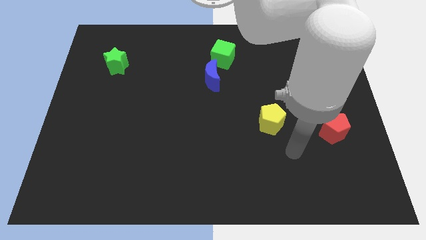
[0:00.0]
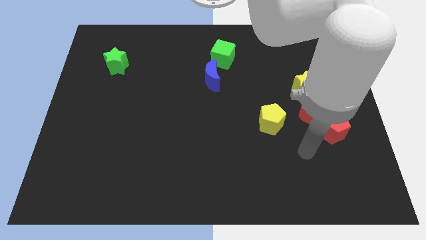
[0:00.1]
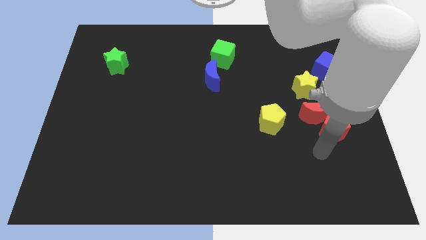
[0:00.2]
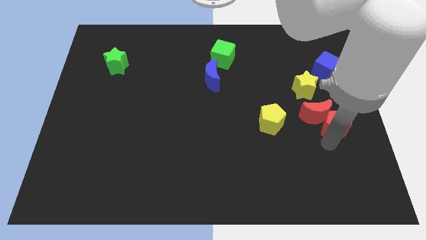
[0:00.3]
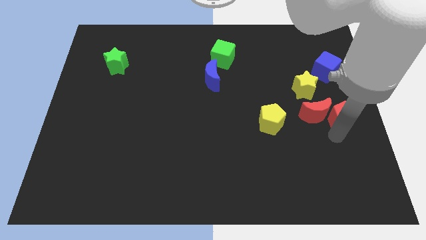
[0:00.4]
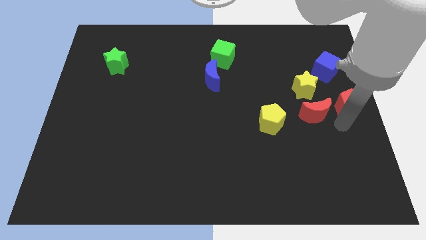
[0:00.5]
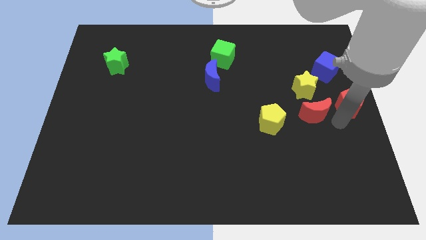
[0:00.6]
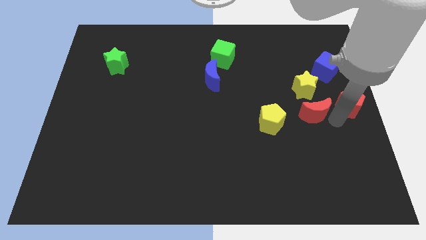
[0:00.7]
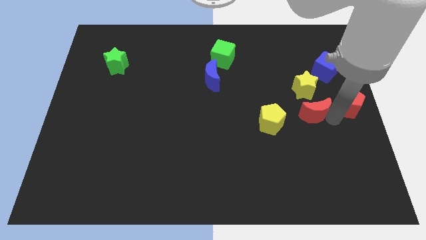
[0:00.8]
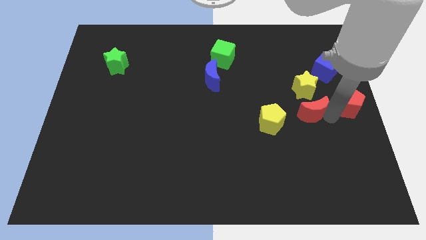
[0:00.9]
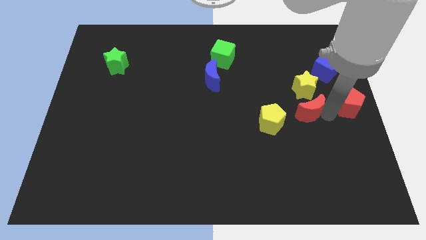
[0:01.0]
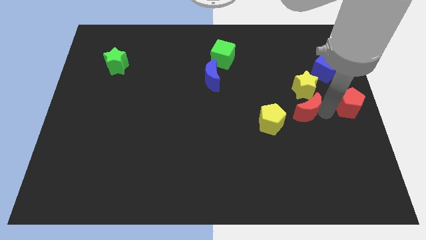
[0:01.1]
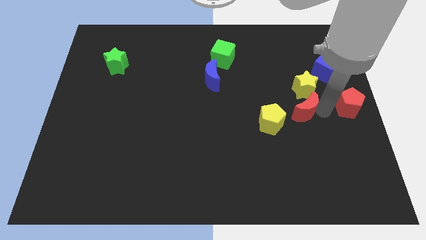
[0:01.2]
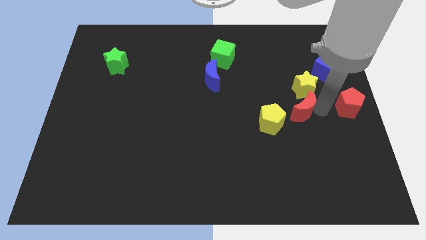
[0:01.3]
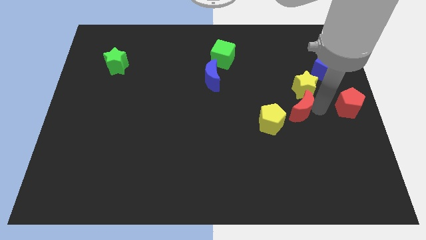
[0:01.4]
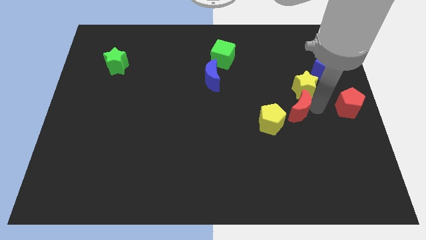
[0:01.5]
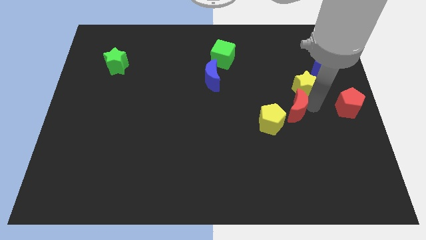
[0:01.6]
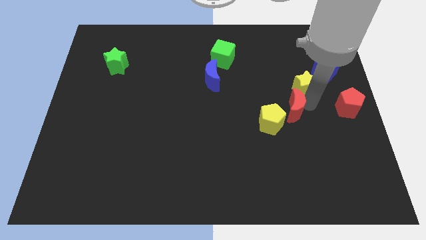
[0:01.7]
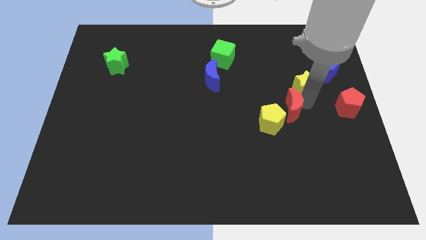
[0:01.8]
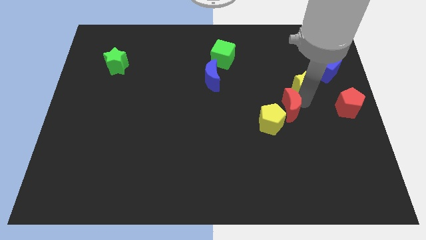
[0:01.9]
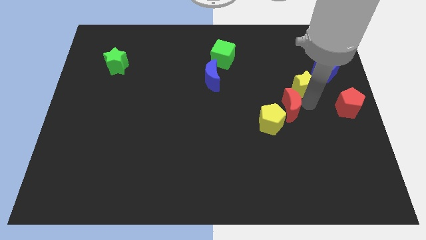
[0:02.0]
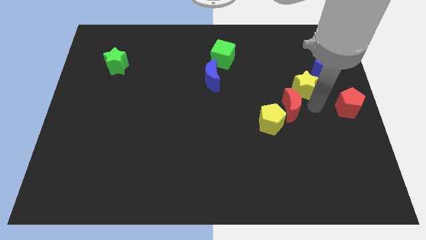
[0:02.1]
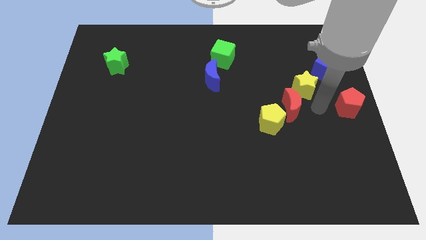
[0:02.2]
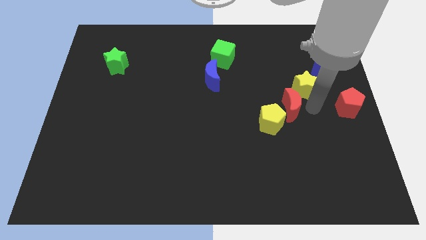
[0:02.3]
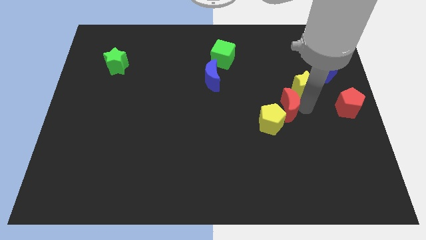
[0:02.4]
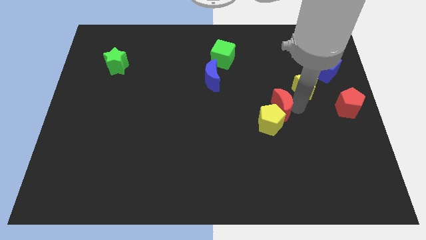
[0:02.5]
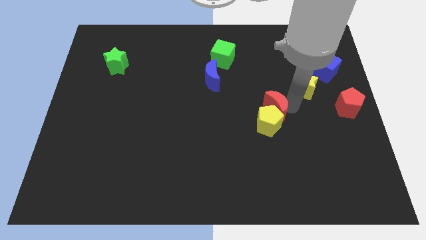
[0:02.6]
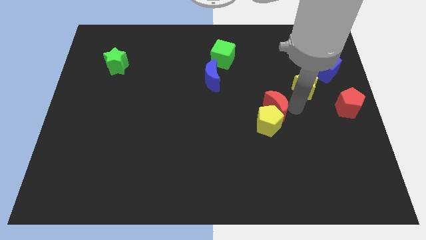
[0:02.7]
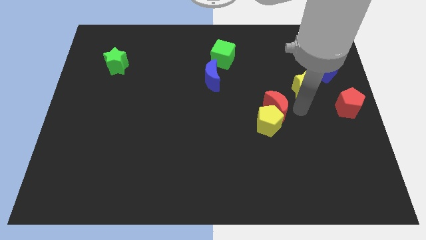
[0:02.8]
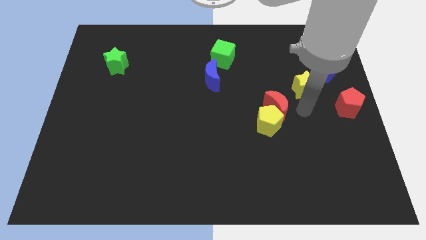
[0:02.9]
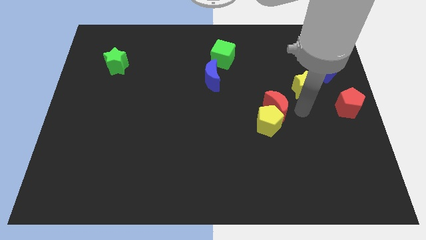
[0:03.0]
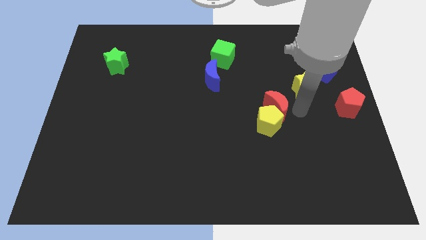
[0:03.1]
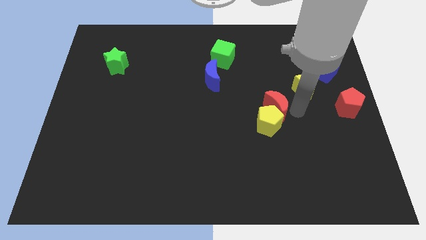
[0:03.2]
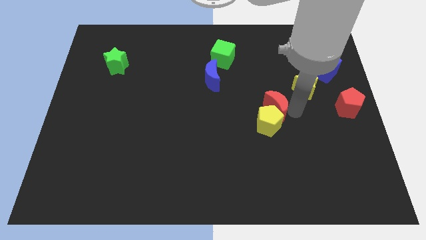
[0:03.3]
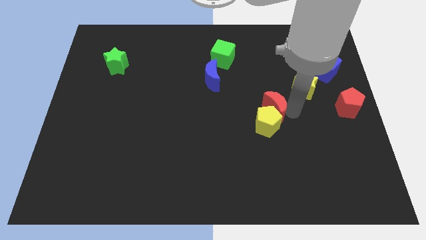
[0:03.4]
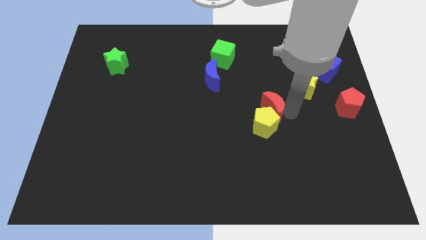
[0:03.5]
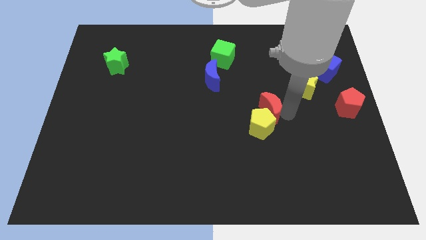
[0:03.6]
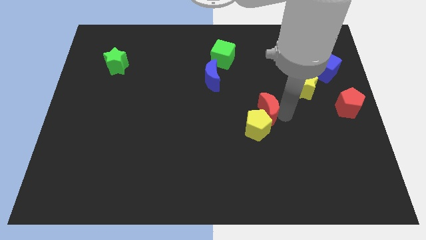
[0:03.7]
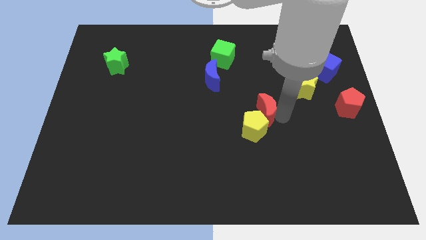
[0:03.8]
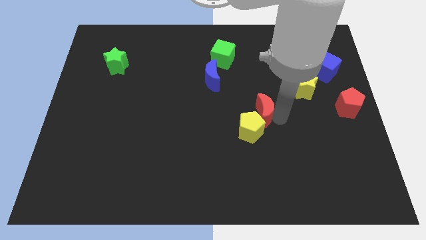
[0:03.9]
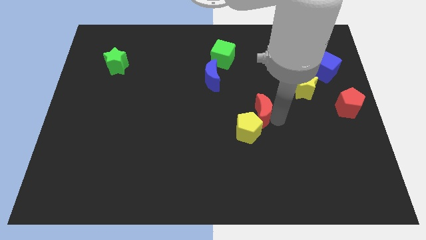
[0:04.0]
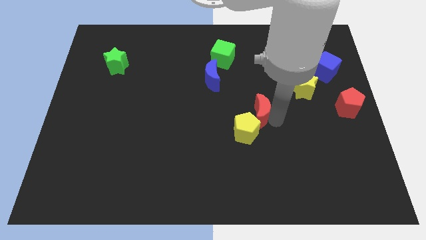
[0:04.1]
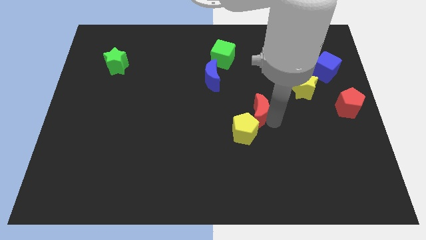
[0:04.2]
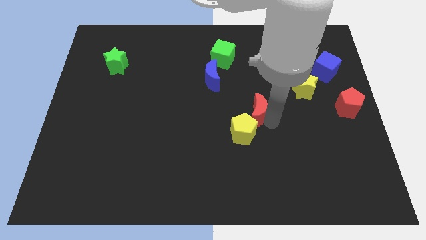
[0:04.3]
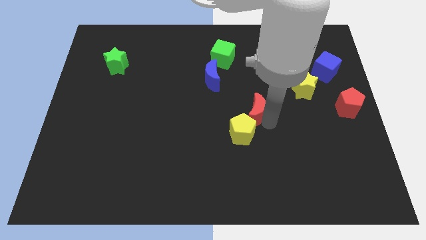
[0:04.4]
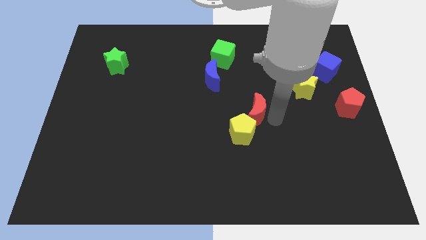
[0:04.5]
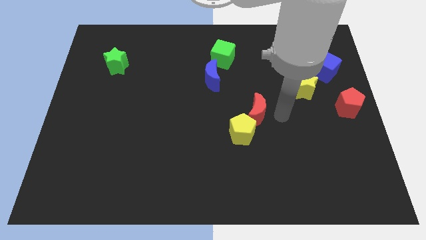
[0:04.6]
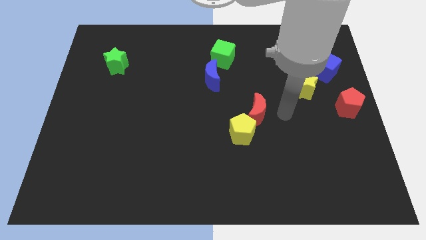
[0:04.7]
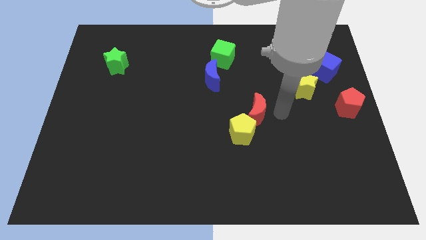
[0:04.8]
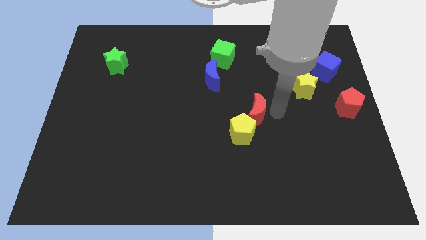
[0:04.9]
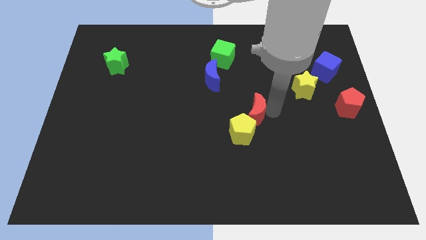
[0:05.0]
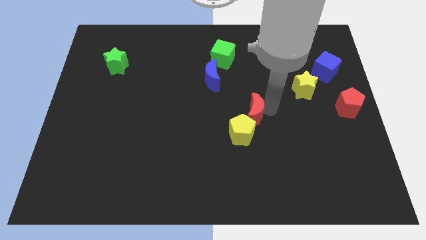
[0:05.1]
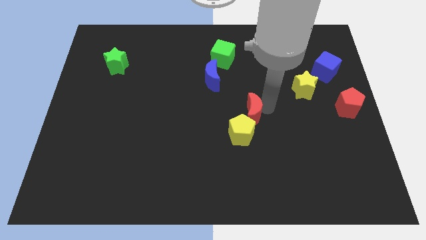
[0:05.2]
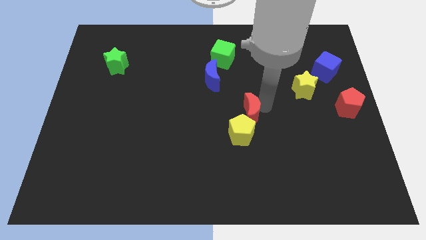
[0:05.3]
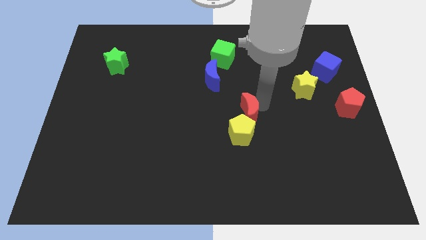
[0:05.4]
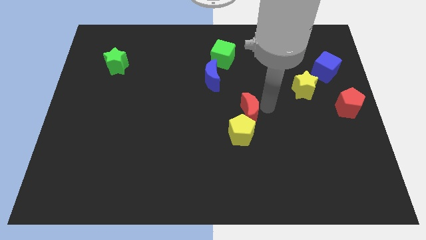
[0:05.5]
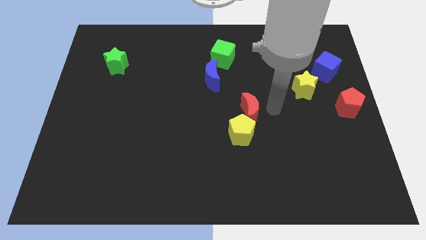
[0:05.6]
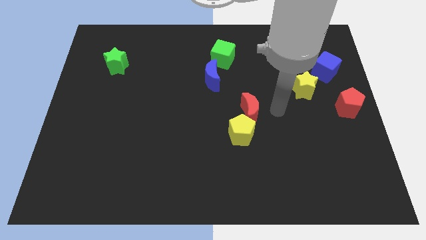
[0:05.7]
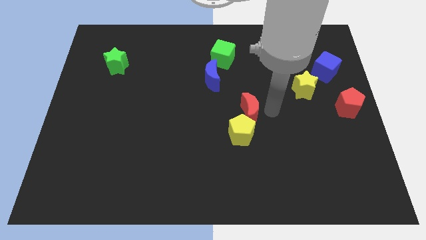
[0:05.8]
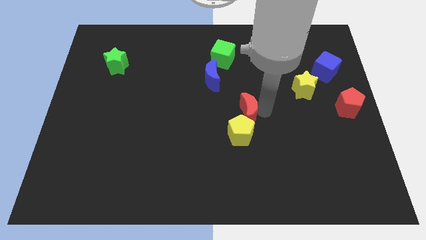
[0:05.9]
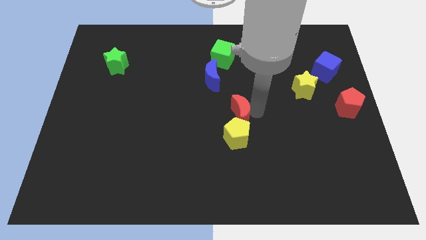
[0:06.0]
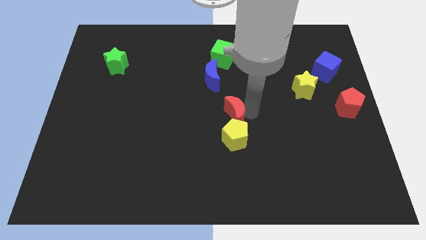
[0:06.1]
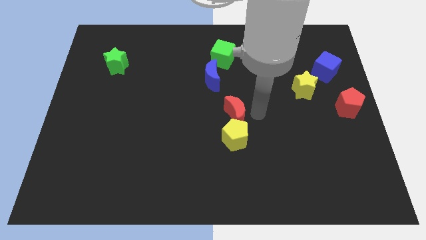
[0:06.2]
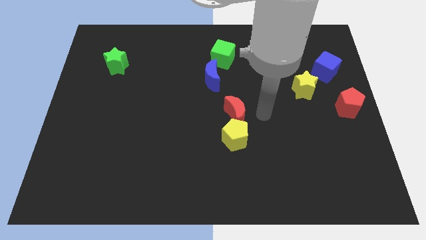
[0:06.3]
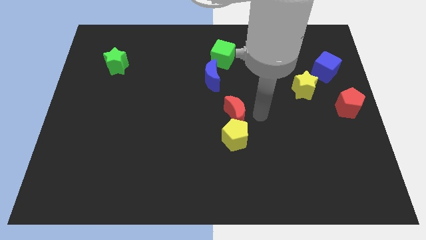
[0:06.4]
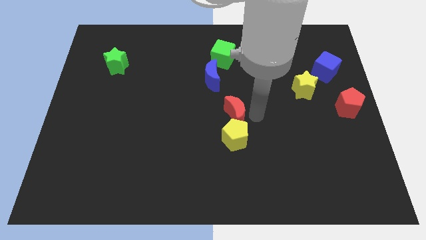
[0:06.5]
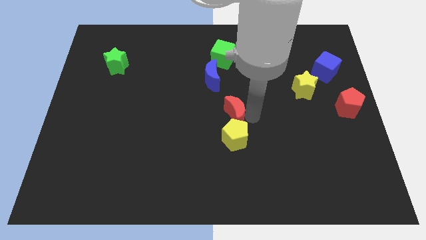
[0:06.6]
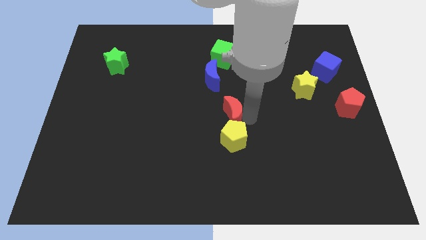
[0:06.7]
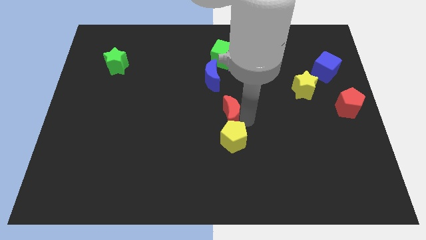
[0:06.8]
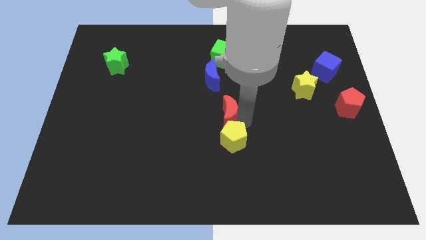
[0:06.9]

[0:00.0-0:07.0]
move the red moon to the left

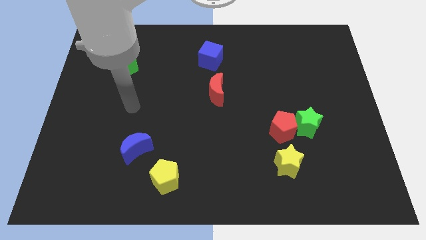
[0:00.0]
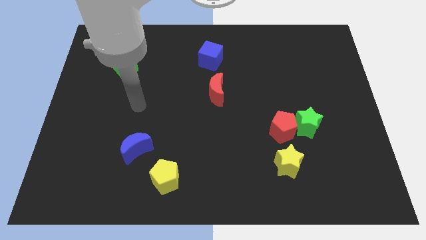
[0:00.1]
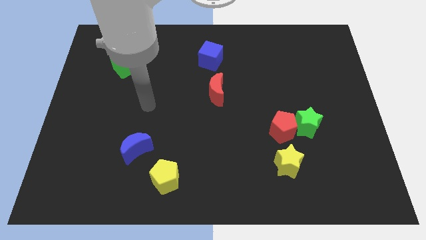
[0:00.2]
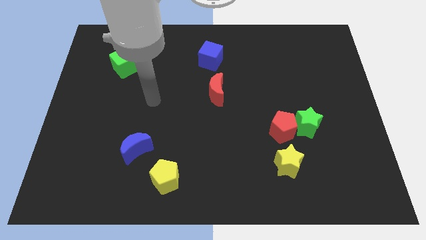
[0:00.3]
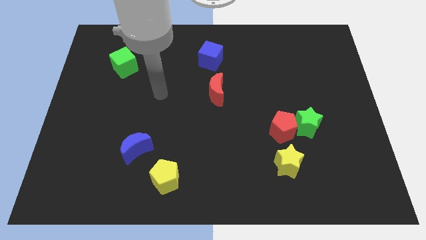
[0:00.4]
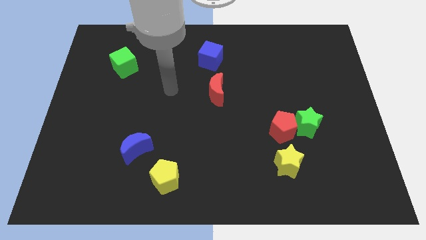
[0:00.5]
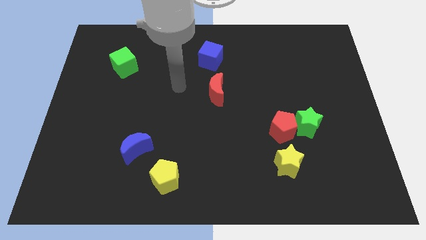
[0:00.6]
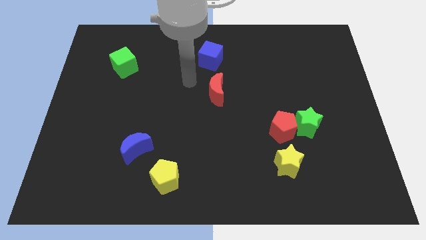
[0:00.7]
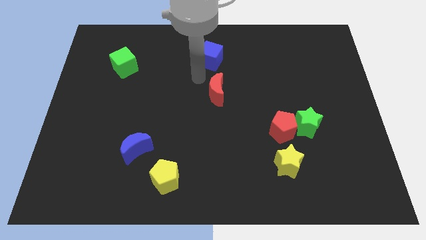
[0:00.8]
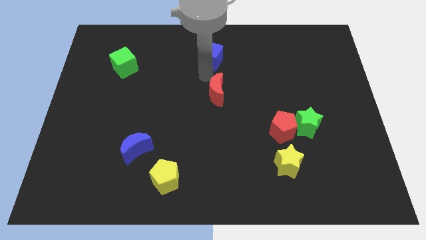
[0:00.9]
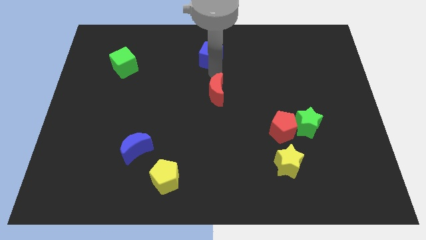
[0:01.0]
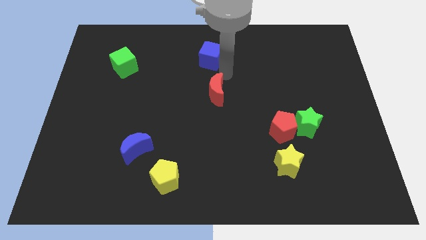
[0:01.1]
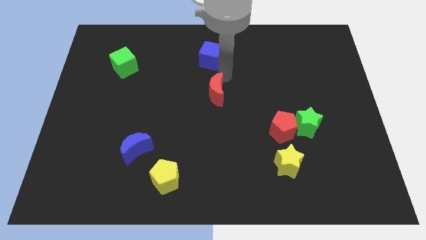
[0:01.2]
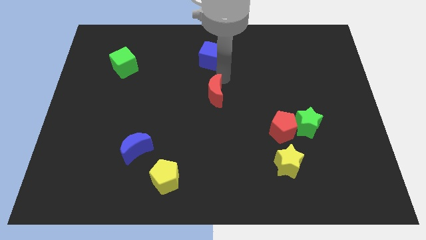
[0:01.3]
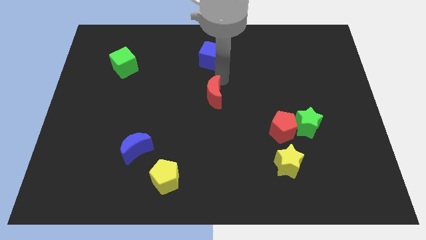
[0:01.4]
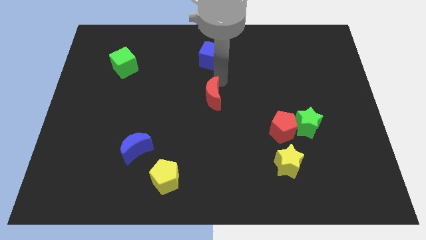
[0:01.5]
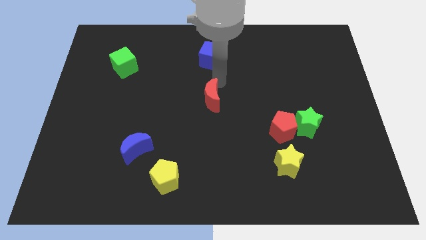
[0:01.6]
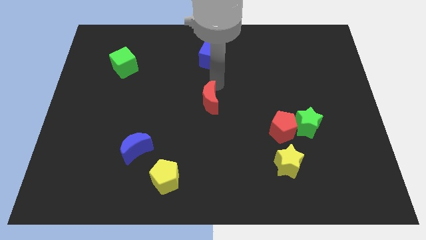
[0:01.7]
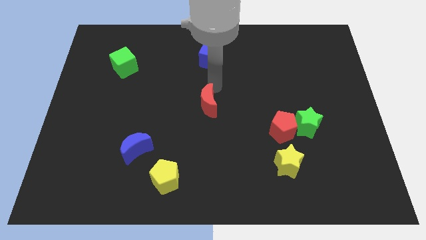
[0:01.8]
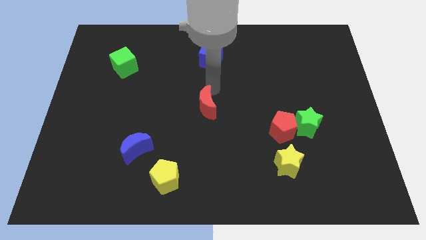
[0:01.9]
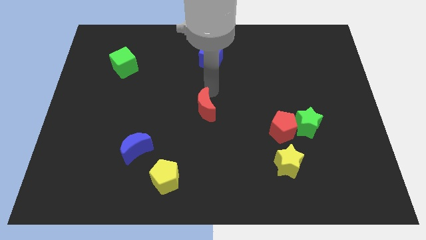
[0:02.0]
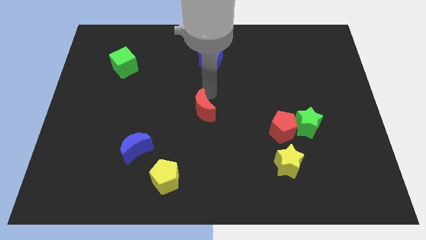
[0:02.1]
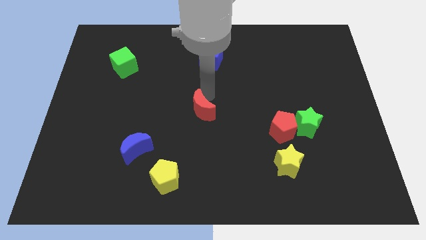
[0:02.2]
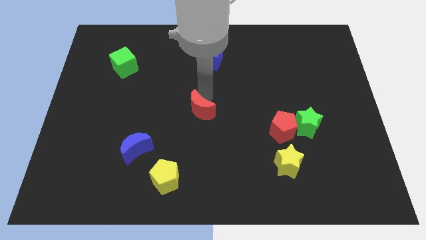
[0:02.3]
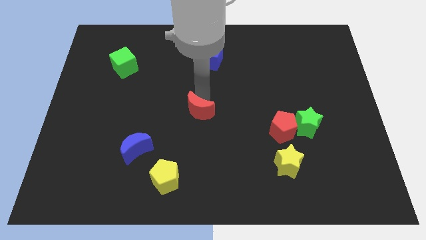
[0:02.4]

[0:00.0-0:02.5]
move the red moon down and then to the left a little bit
